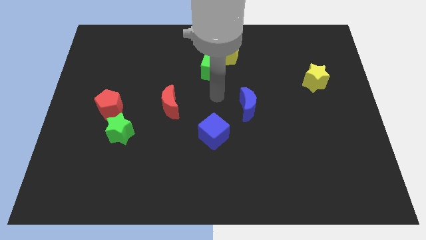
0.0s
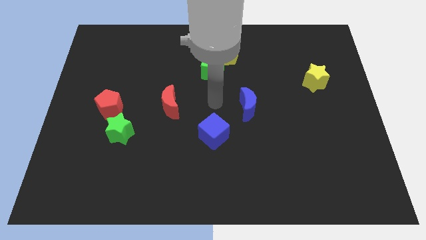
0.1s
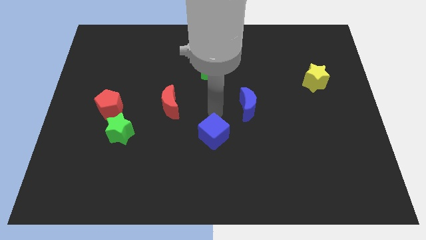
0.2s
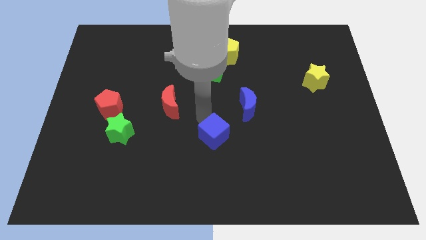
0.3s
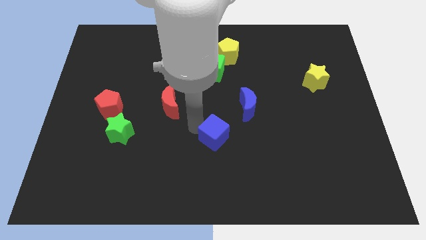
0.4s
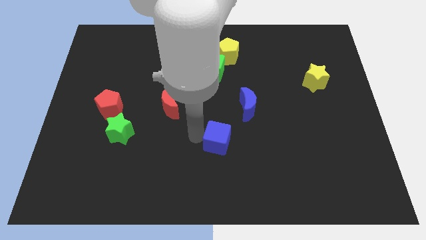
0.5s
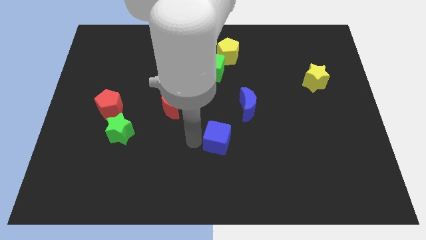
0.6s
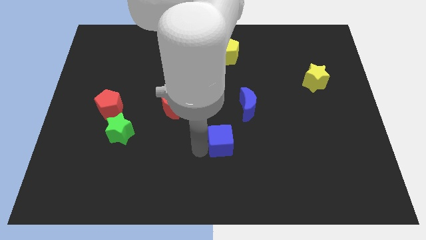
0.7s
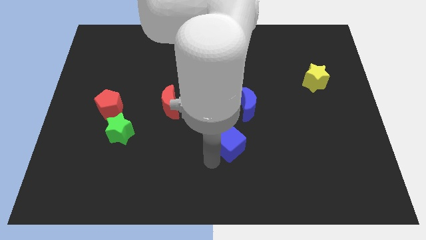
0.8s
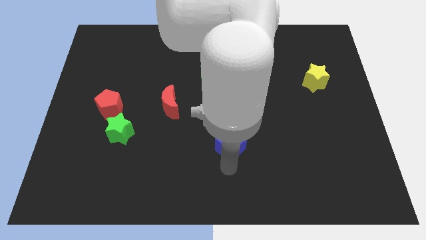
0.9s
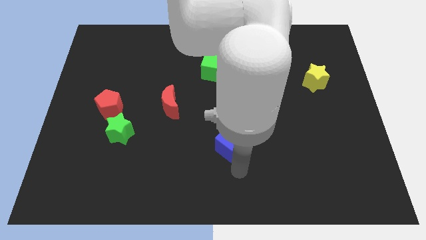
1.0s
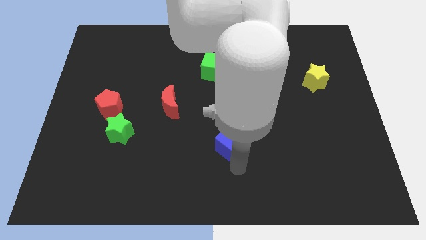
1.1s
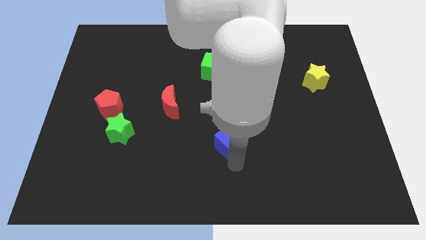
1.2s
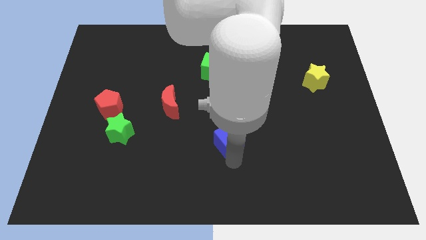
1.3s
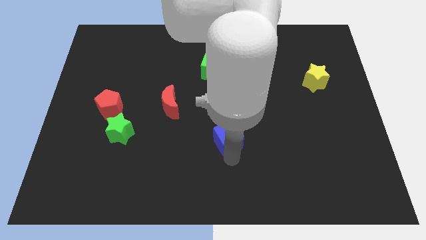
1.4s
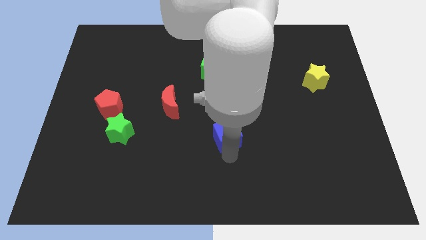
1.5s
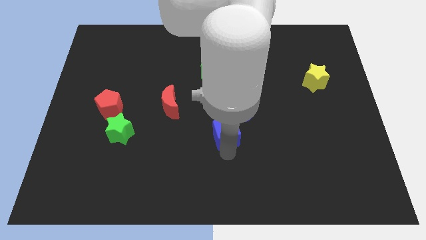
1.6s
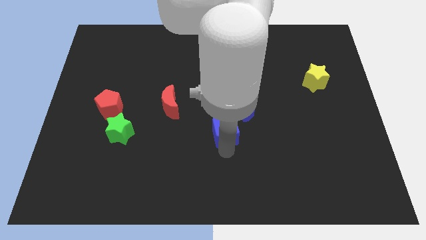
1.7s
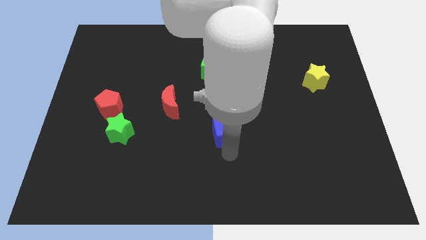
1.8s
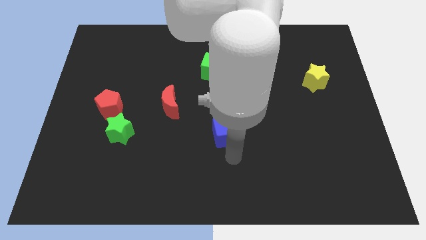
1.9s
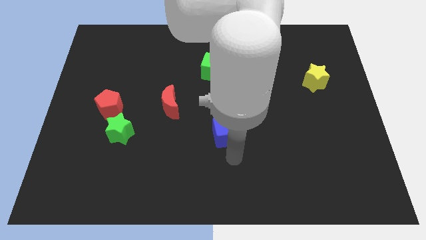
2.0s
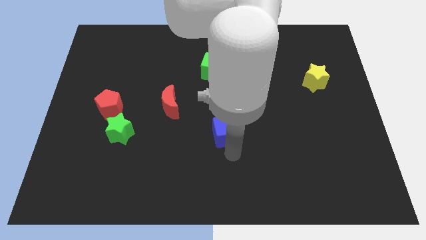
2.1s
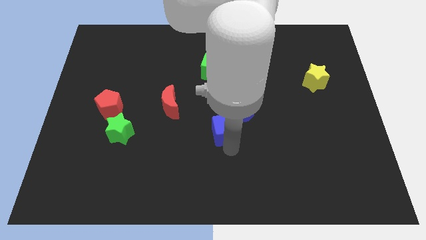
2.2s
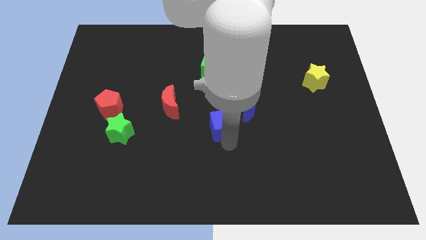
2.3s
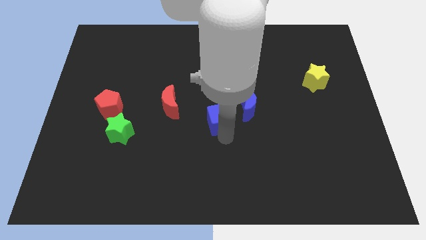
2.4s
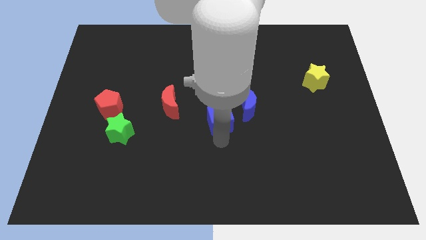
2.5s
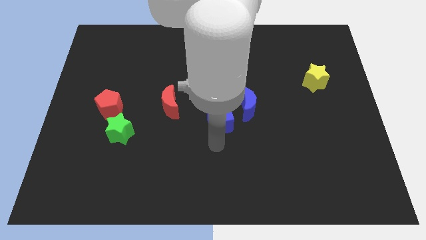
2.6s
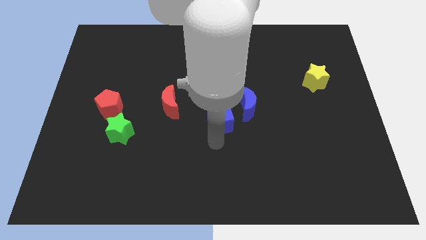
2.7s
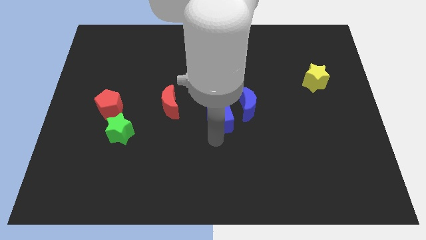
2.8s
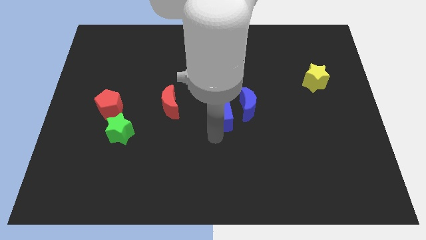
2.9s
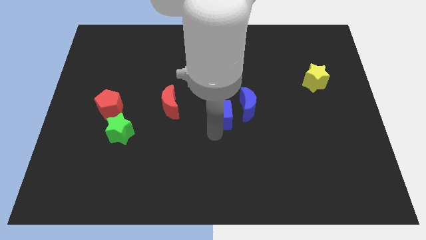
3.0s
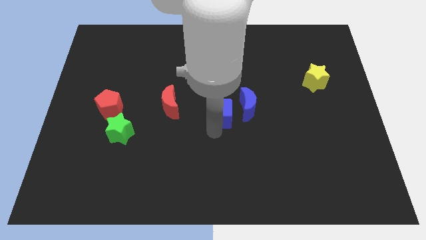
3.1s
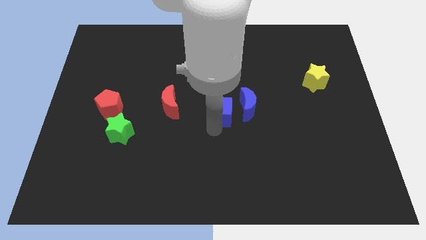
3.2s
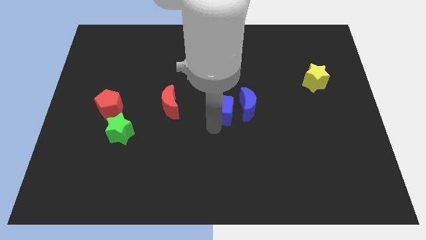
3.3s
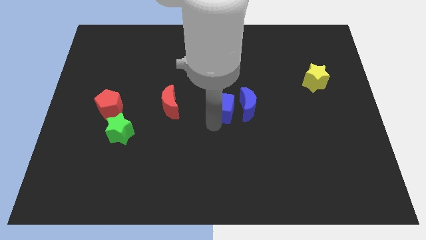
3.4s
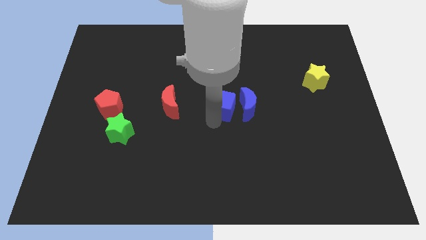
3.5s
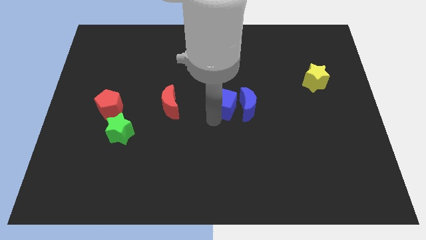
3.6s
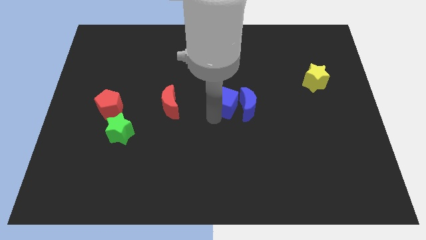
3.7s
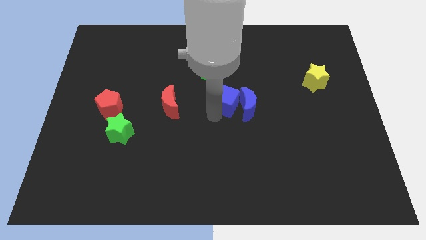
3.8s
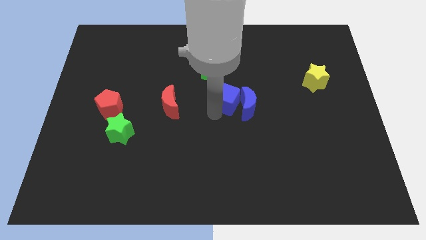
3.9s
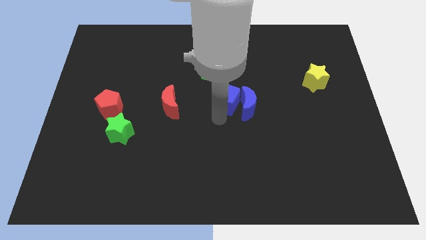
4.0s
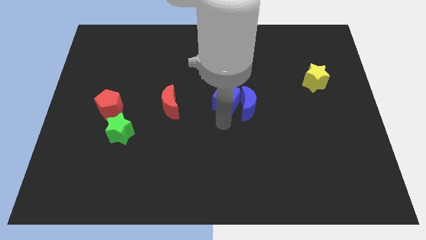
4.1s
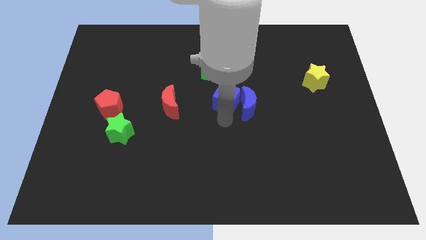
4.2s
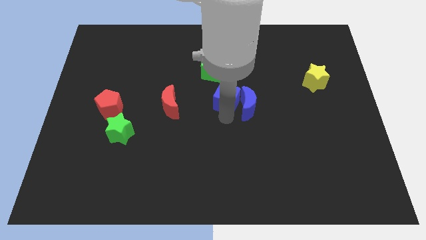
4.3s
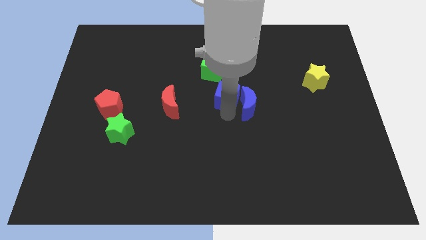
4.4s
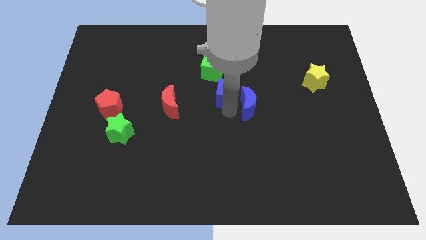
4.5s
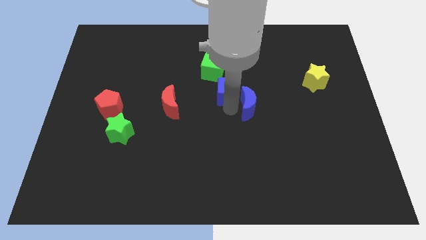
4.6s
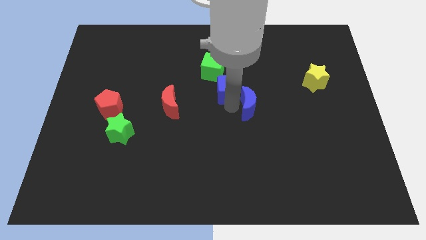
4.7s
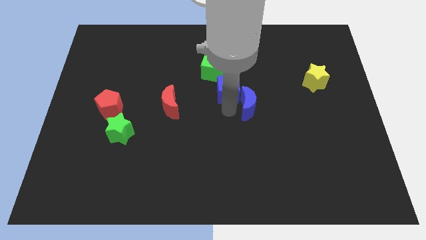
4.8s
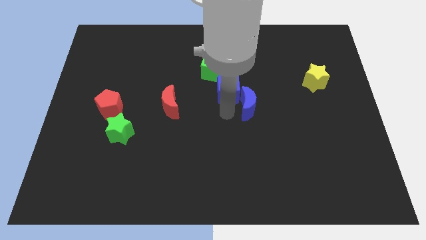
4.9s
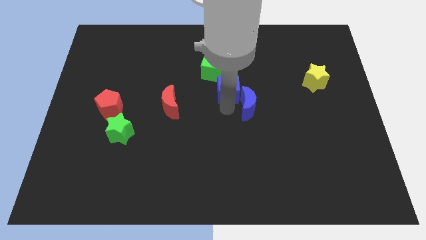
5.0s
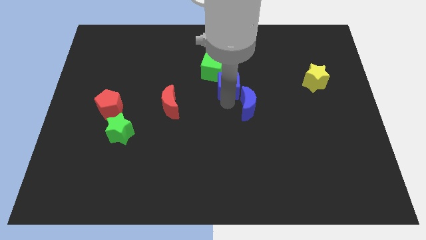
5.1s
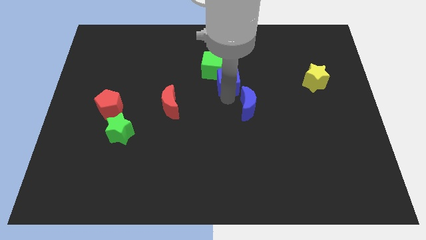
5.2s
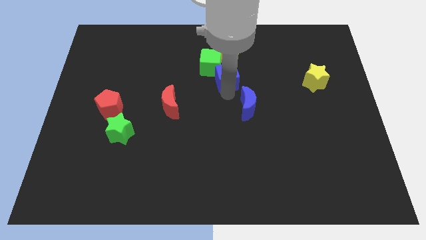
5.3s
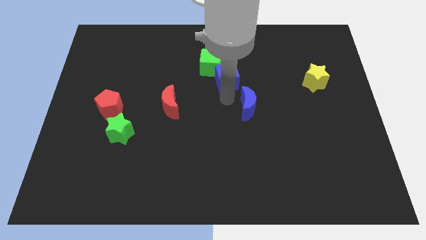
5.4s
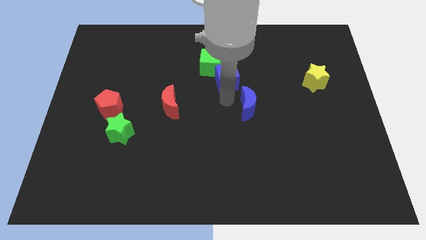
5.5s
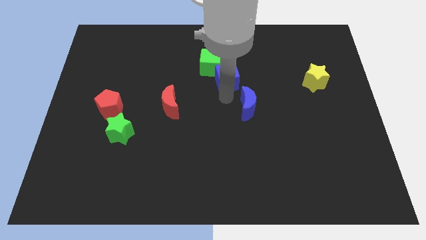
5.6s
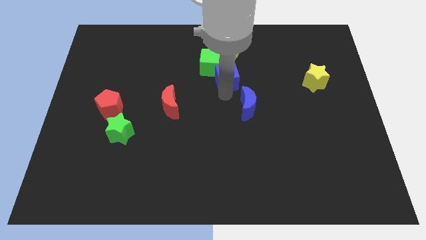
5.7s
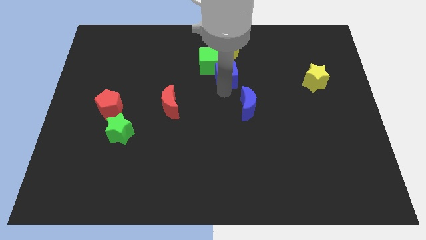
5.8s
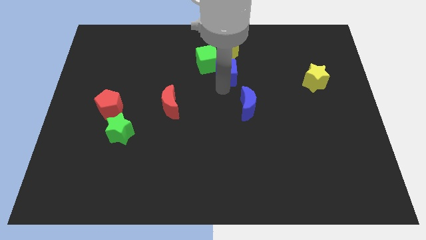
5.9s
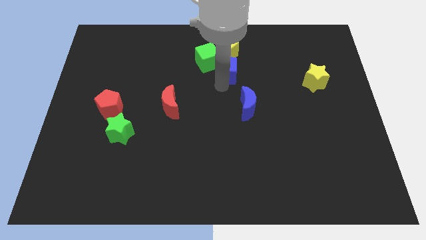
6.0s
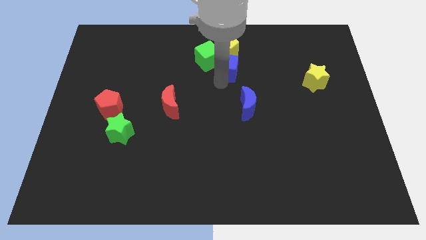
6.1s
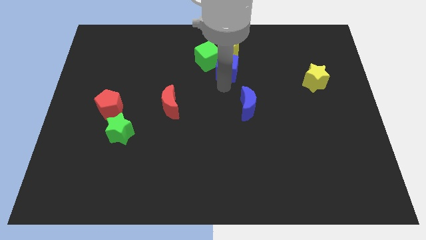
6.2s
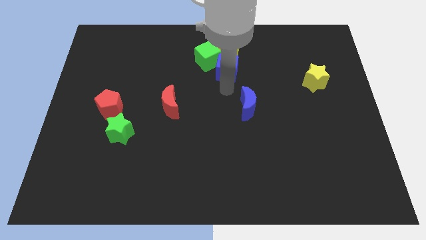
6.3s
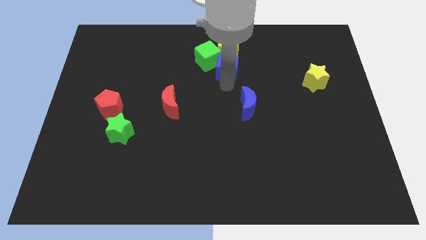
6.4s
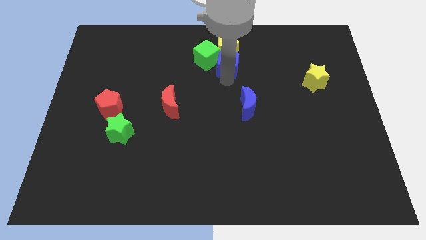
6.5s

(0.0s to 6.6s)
push the blue cube next to the yellow pentagon

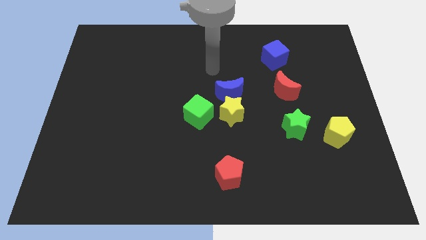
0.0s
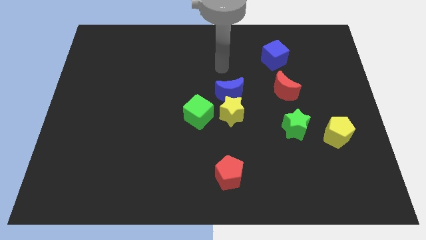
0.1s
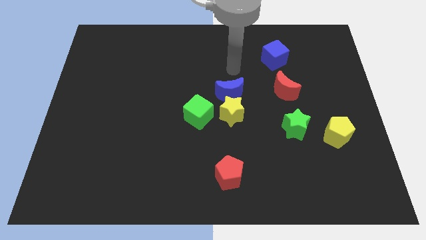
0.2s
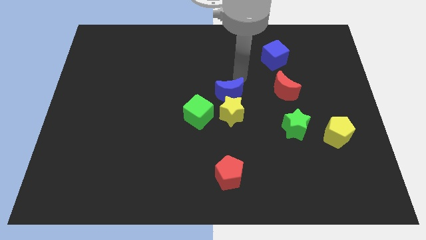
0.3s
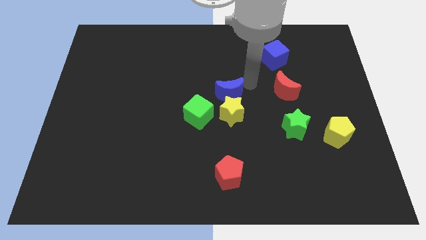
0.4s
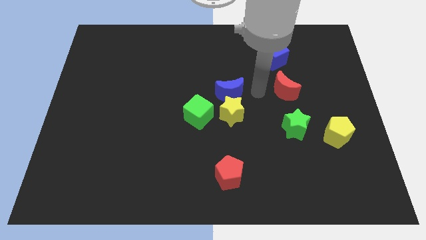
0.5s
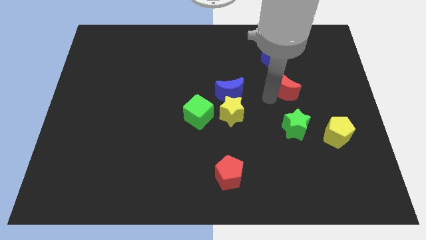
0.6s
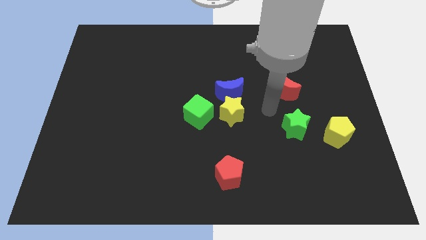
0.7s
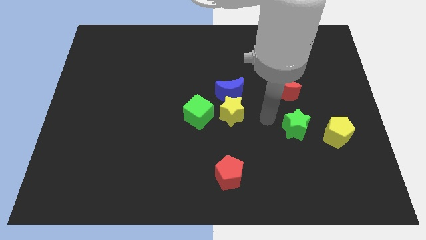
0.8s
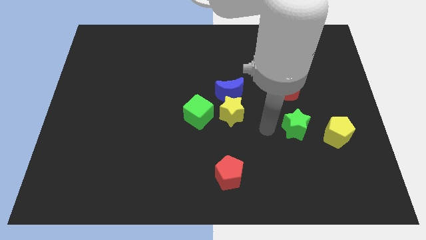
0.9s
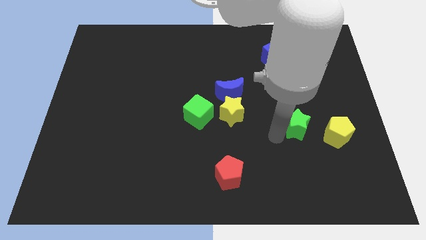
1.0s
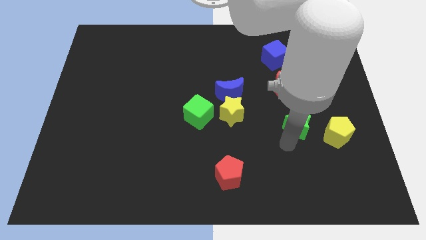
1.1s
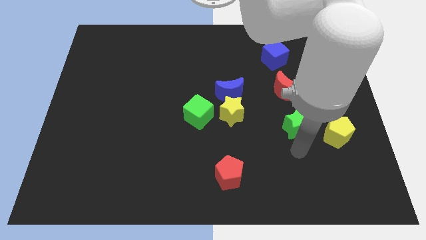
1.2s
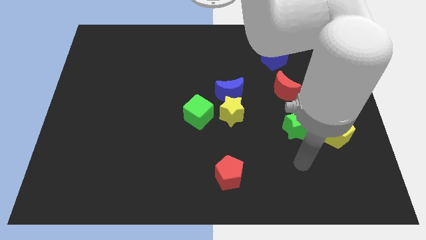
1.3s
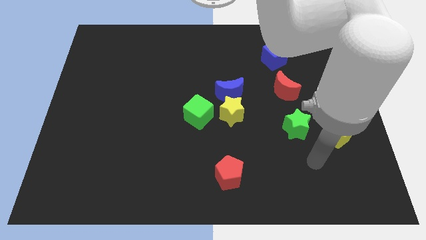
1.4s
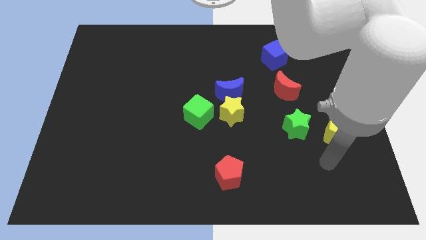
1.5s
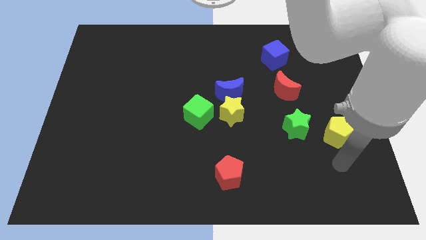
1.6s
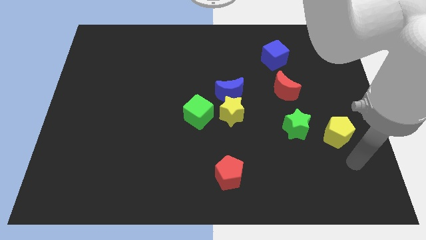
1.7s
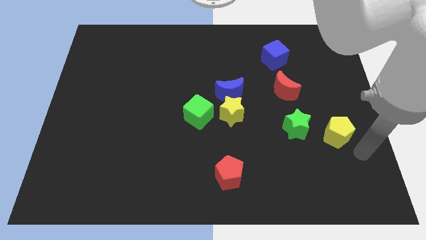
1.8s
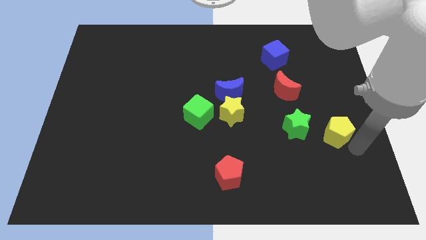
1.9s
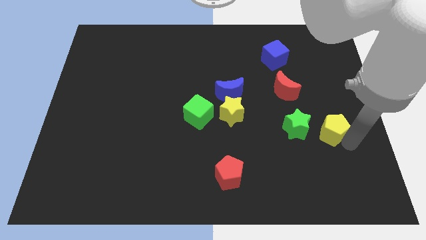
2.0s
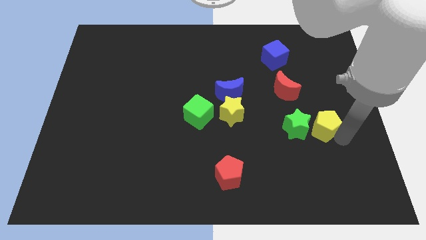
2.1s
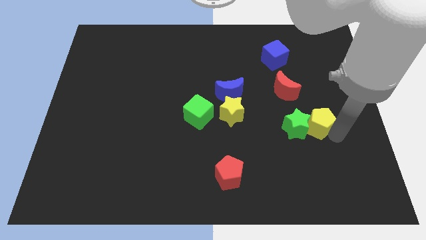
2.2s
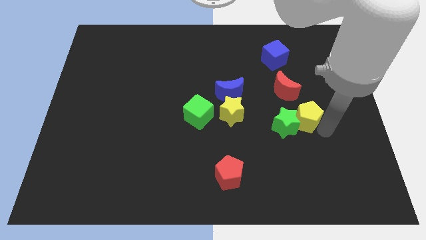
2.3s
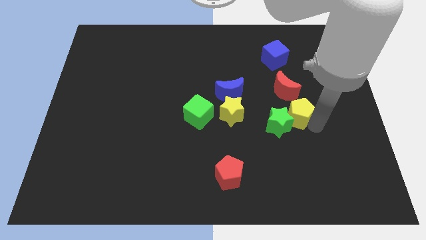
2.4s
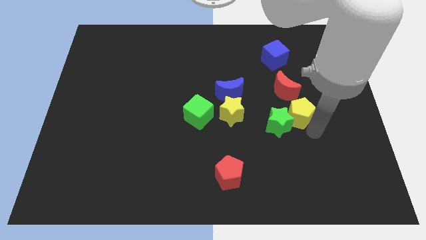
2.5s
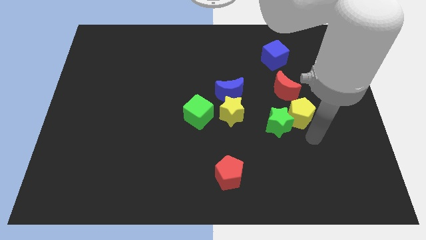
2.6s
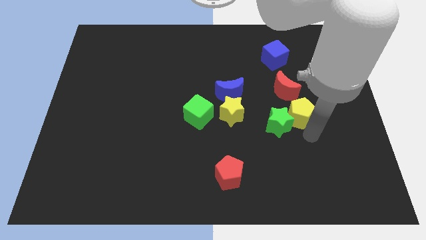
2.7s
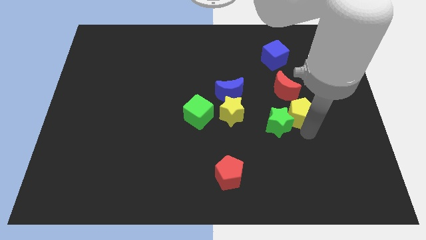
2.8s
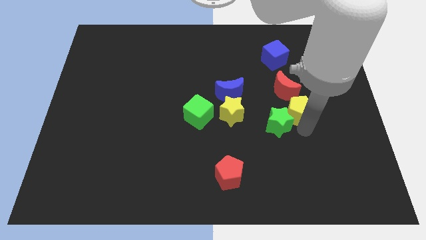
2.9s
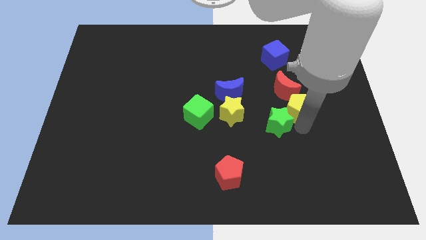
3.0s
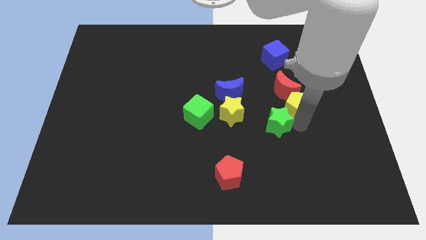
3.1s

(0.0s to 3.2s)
push the yellow pentagon to the red moon
